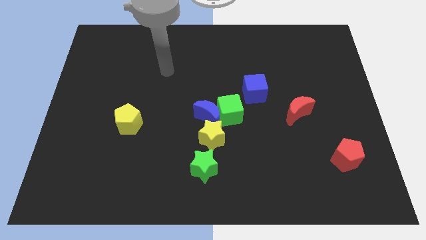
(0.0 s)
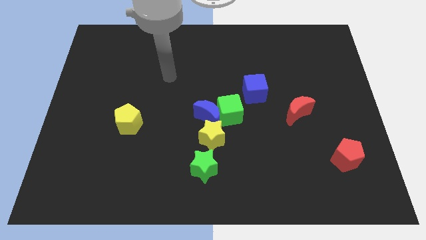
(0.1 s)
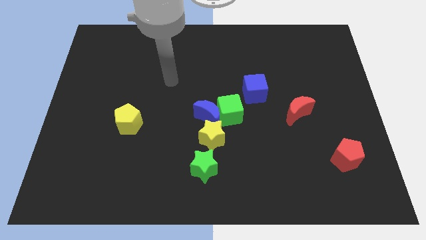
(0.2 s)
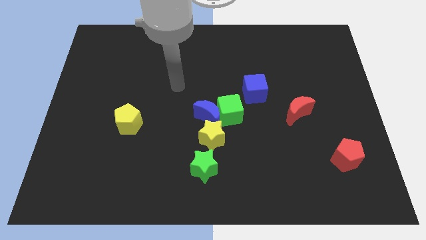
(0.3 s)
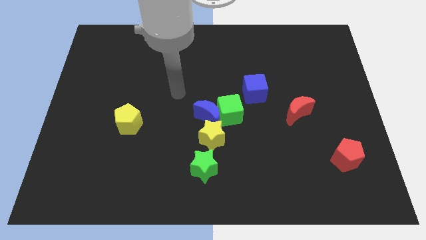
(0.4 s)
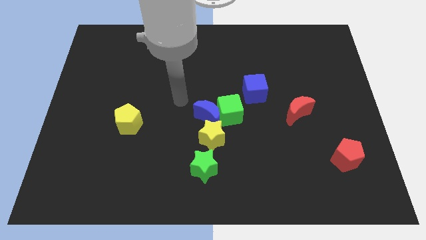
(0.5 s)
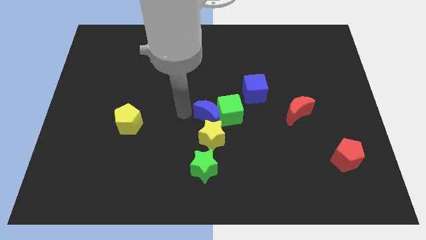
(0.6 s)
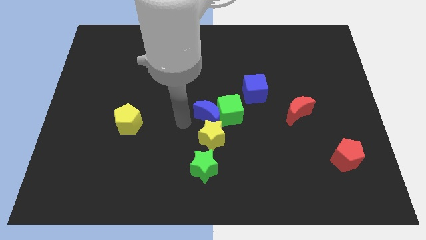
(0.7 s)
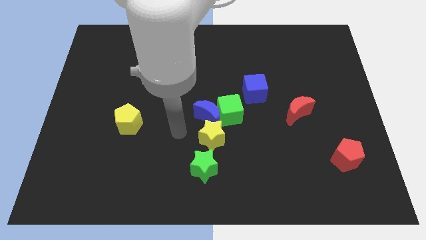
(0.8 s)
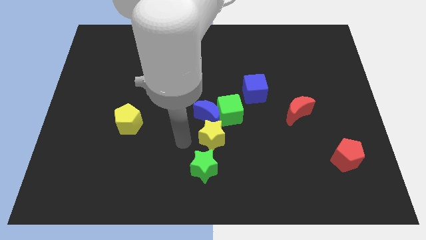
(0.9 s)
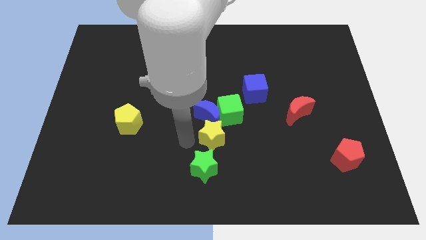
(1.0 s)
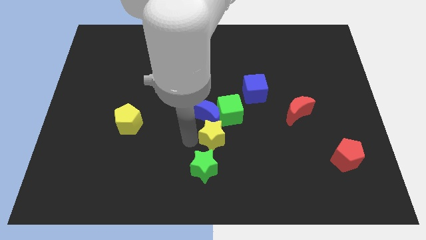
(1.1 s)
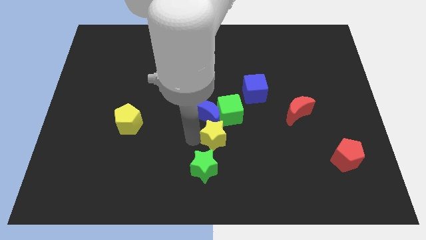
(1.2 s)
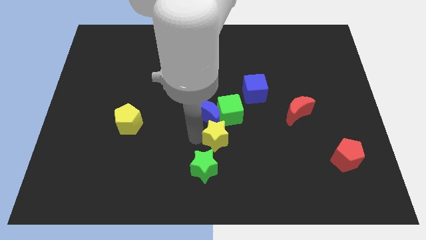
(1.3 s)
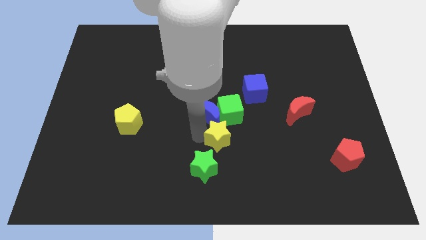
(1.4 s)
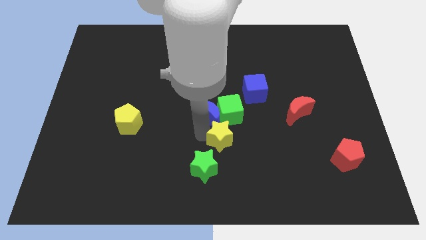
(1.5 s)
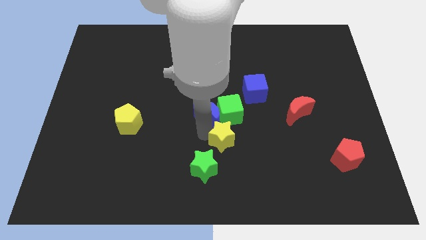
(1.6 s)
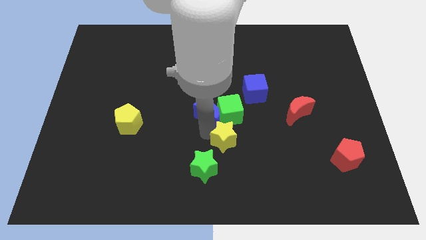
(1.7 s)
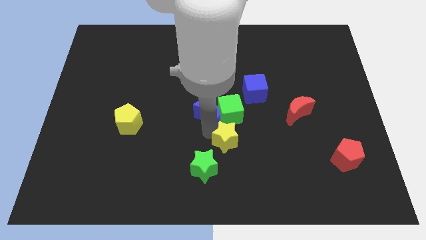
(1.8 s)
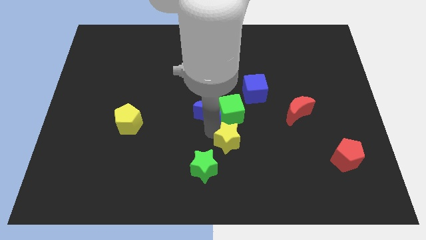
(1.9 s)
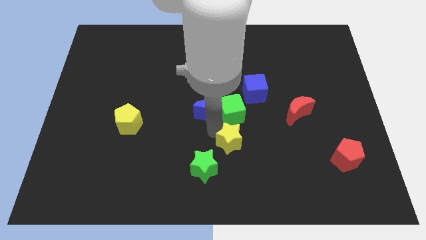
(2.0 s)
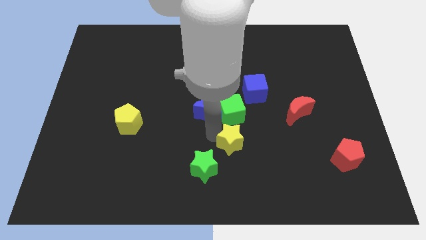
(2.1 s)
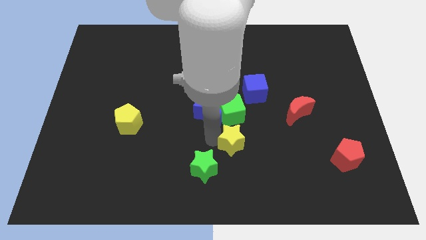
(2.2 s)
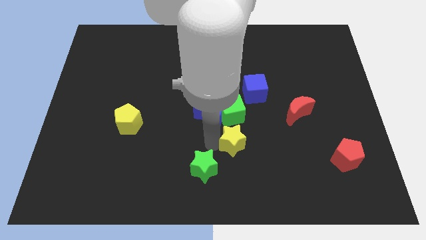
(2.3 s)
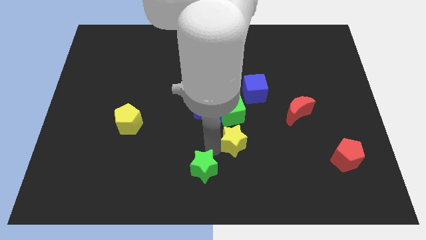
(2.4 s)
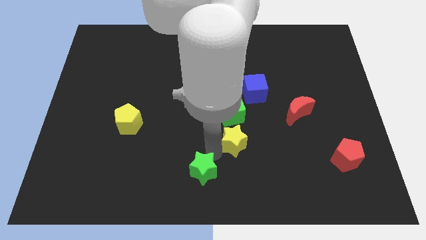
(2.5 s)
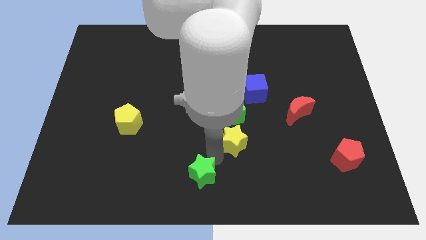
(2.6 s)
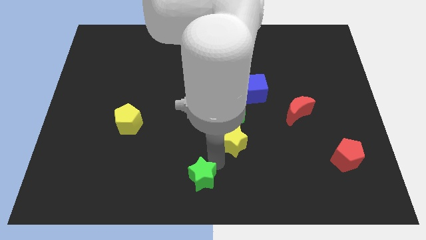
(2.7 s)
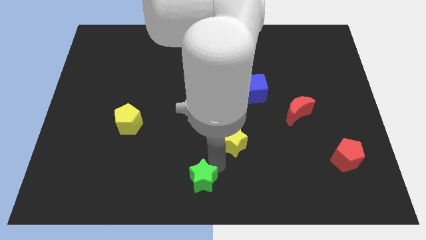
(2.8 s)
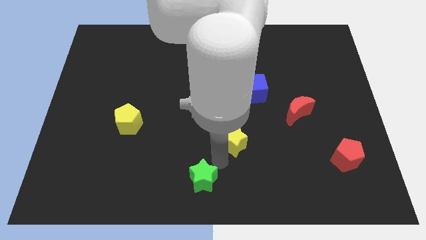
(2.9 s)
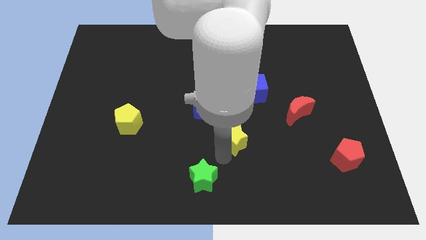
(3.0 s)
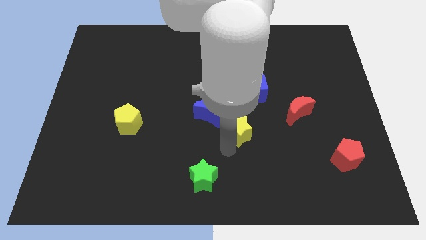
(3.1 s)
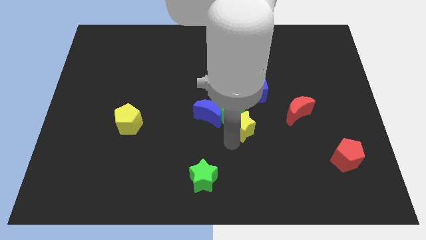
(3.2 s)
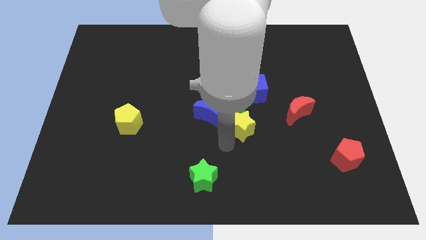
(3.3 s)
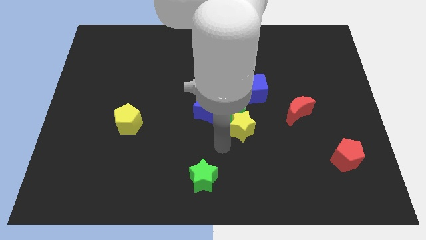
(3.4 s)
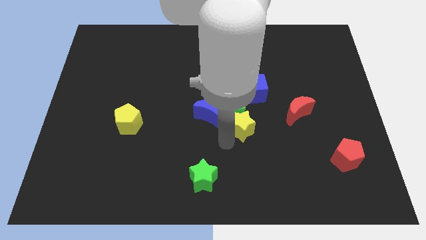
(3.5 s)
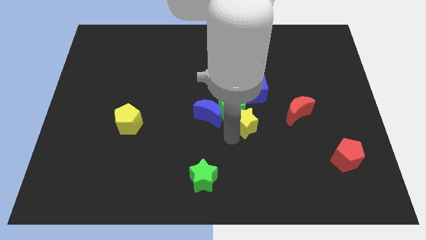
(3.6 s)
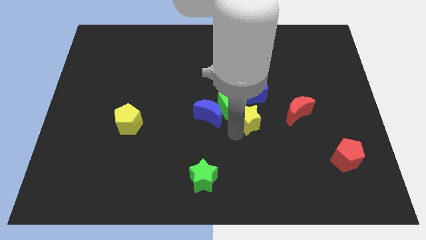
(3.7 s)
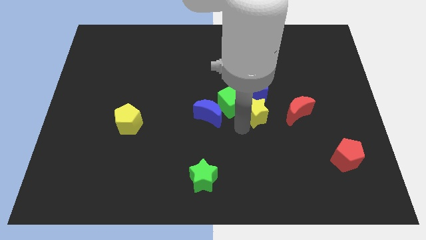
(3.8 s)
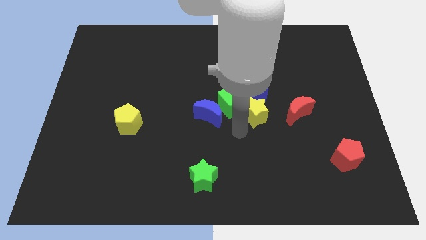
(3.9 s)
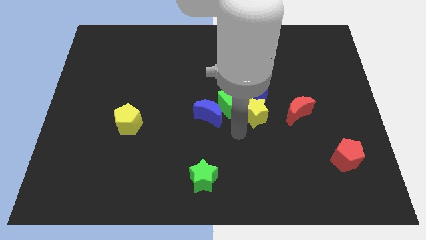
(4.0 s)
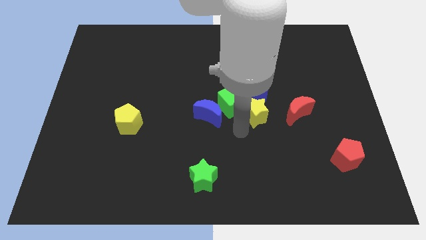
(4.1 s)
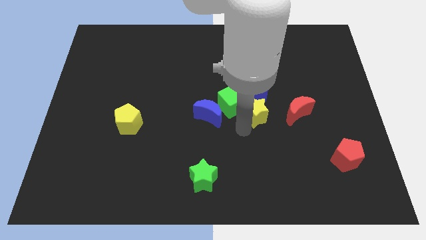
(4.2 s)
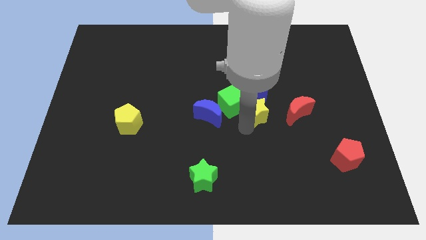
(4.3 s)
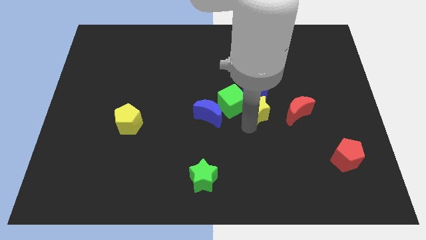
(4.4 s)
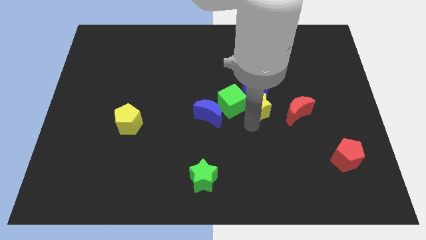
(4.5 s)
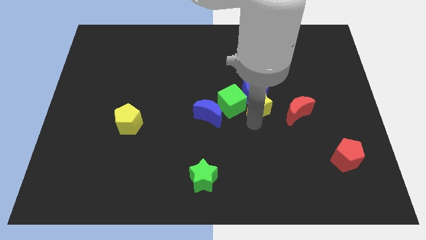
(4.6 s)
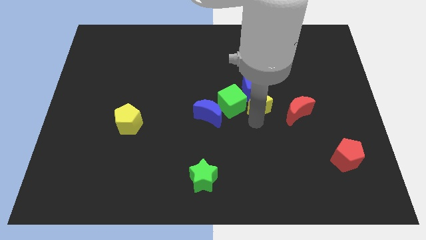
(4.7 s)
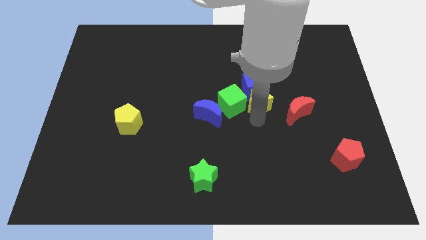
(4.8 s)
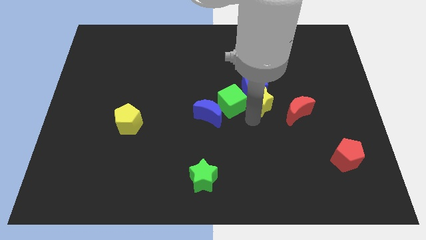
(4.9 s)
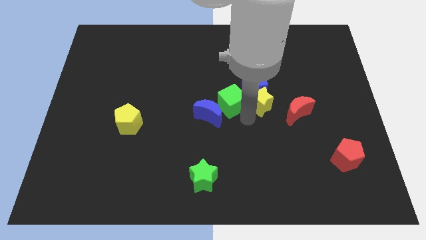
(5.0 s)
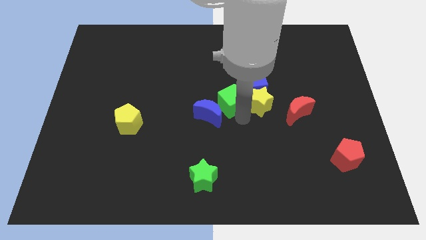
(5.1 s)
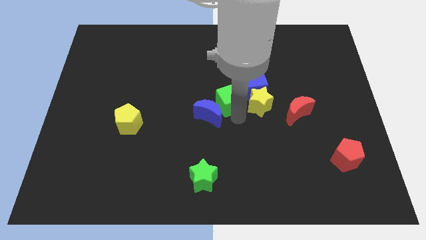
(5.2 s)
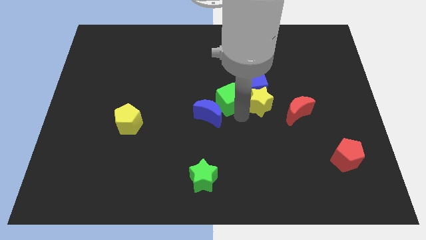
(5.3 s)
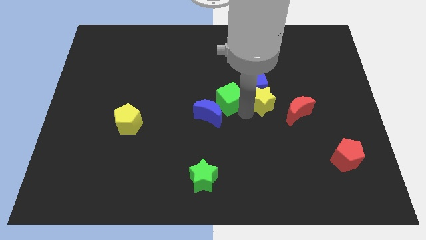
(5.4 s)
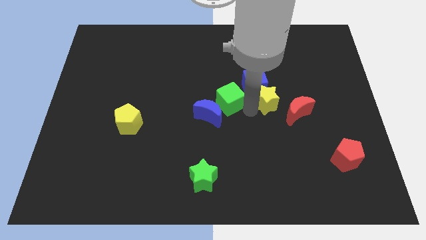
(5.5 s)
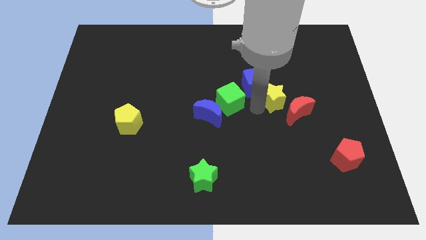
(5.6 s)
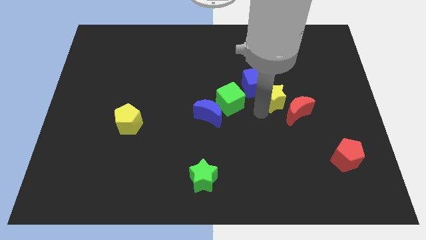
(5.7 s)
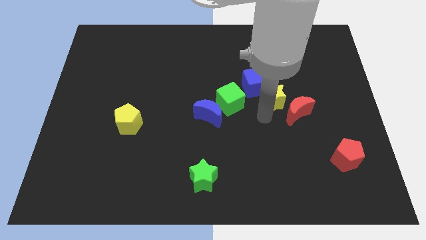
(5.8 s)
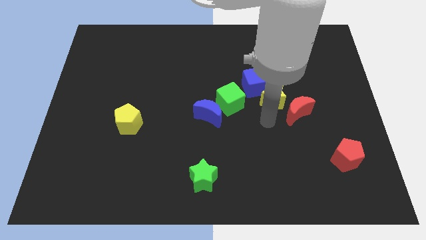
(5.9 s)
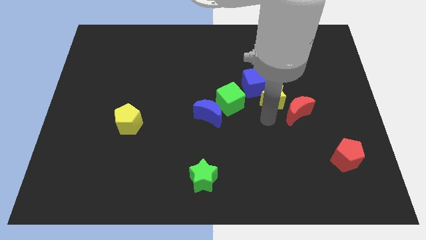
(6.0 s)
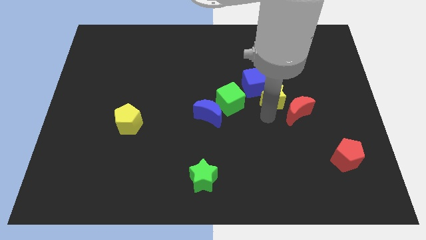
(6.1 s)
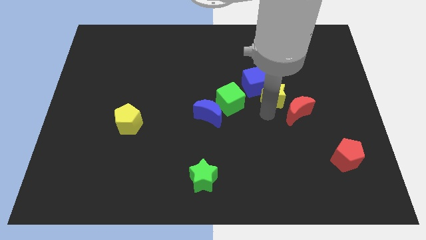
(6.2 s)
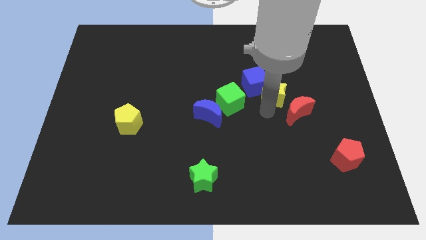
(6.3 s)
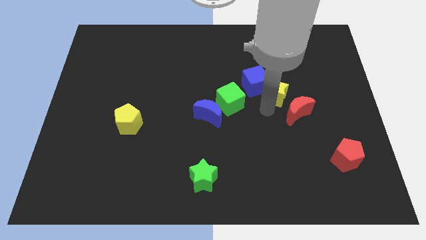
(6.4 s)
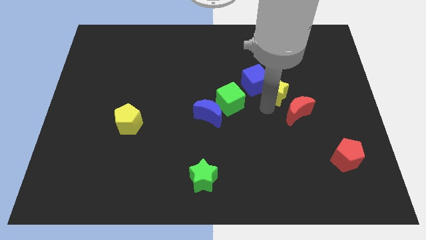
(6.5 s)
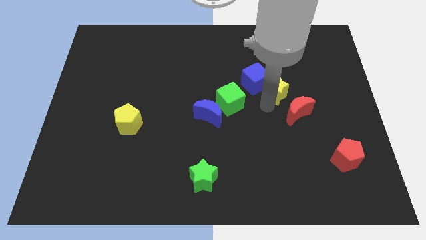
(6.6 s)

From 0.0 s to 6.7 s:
push the yellow star diagonally up and to the right

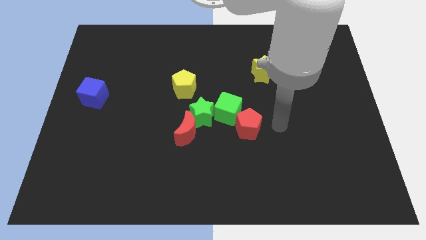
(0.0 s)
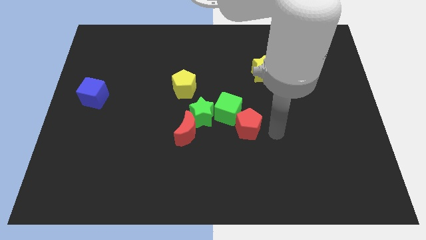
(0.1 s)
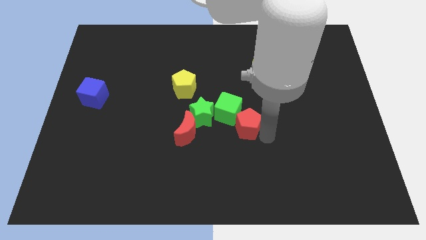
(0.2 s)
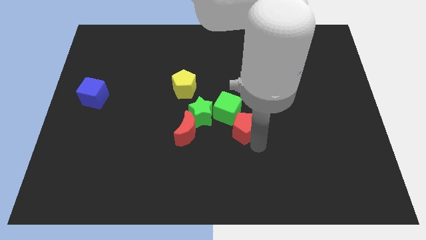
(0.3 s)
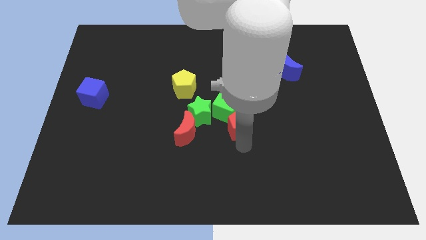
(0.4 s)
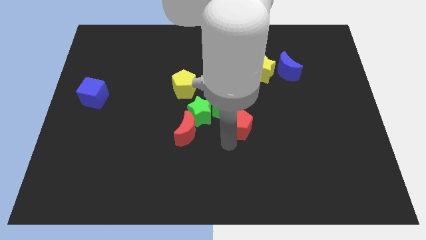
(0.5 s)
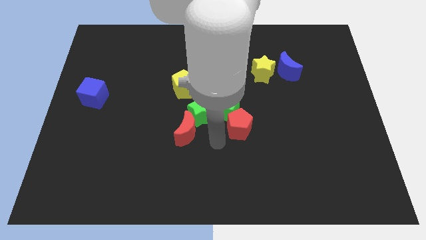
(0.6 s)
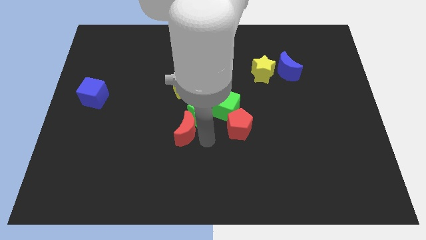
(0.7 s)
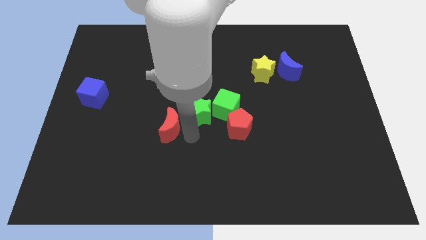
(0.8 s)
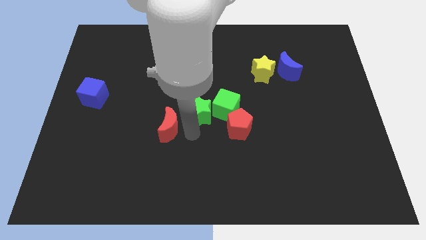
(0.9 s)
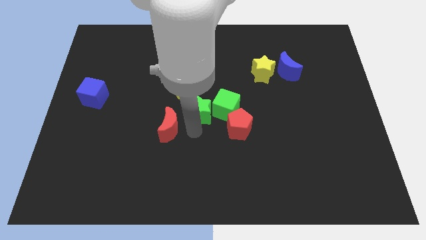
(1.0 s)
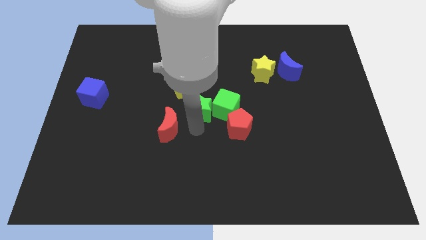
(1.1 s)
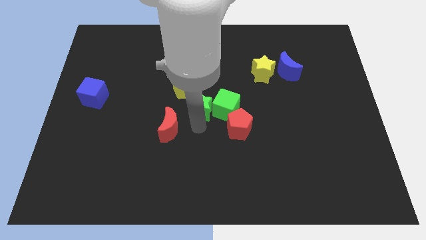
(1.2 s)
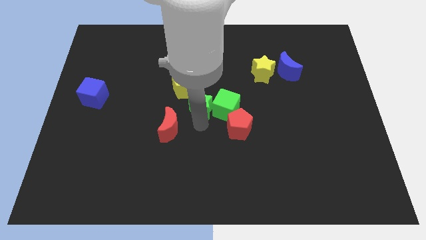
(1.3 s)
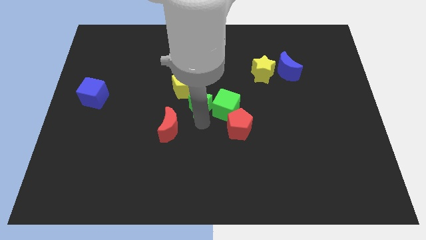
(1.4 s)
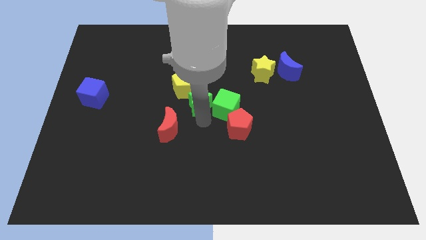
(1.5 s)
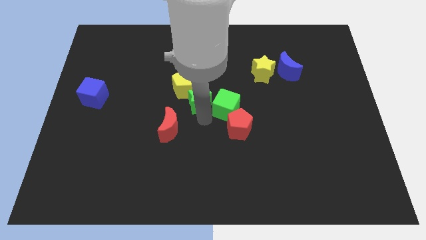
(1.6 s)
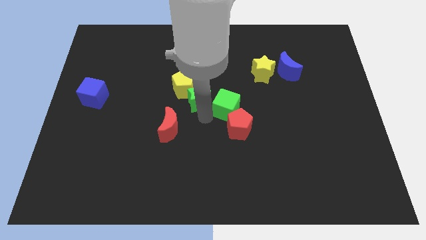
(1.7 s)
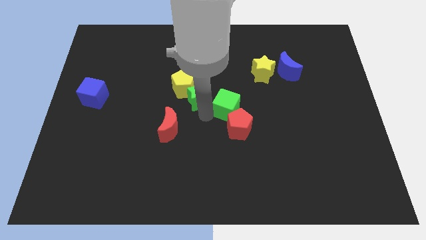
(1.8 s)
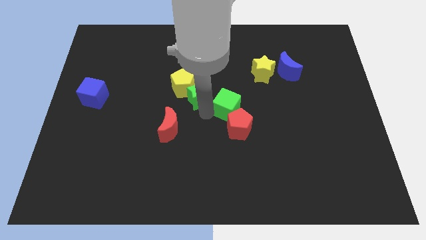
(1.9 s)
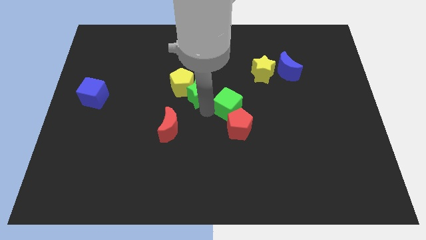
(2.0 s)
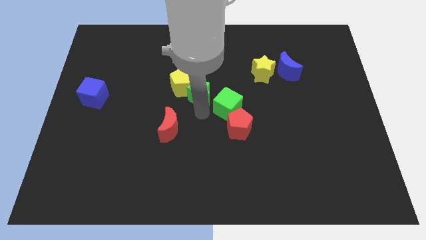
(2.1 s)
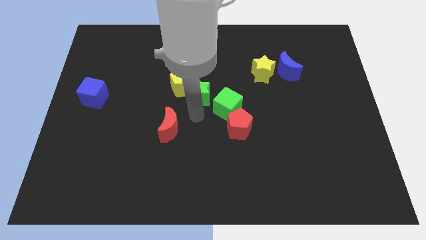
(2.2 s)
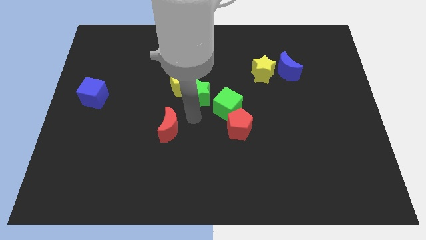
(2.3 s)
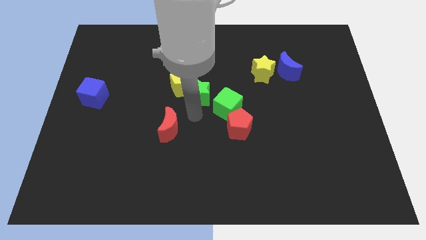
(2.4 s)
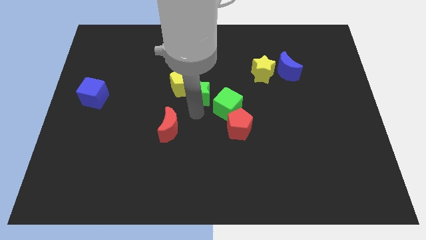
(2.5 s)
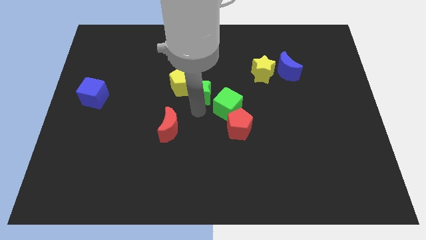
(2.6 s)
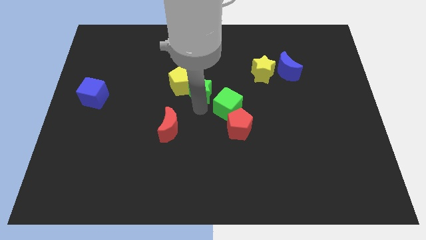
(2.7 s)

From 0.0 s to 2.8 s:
slide the green star upwards a little
